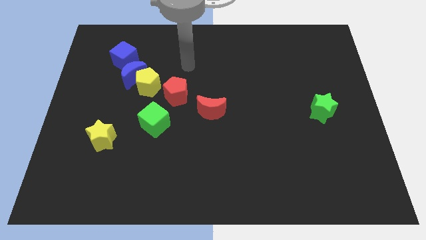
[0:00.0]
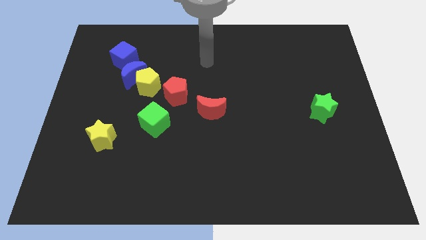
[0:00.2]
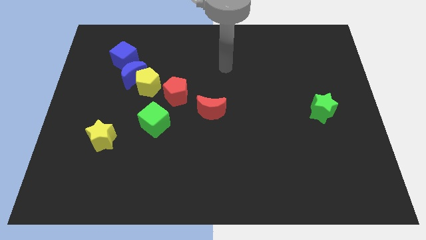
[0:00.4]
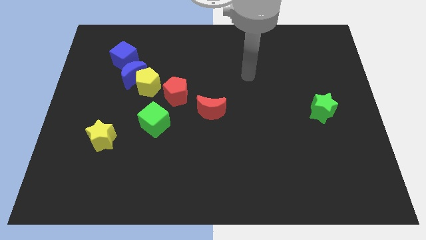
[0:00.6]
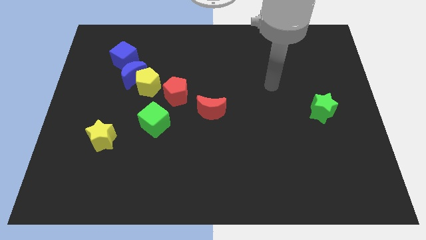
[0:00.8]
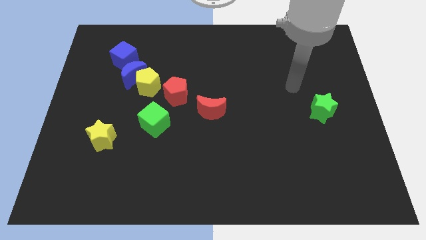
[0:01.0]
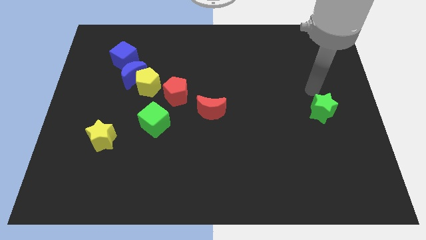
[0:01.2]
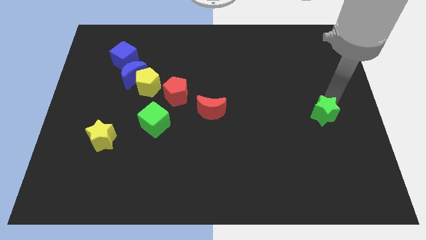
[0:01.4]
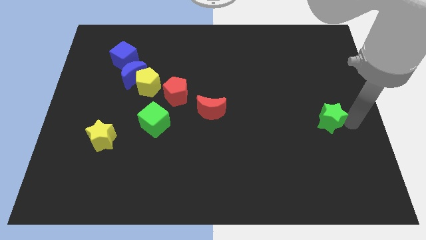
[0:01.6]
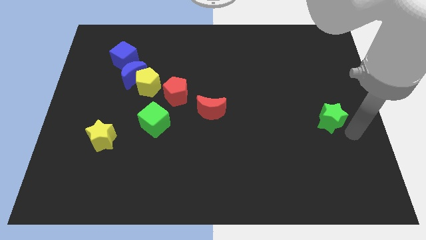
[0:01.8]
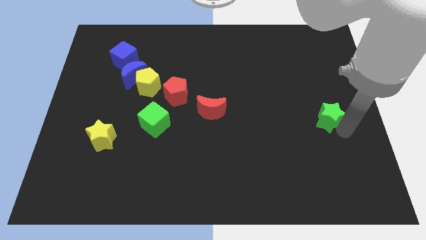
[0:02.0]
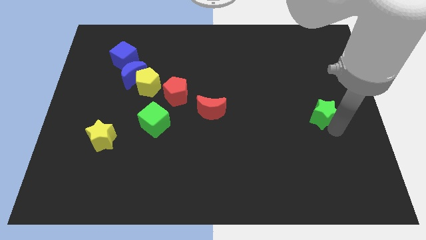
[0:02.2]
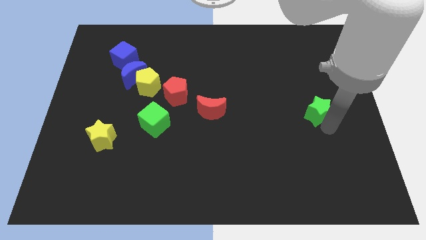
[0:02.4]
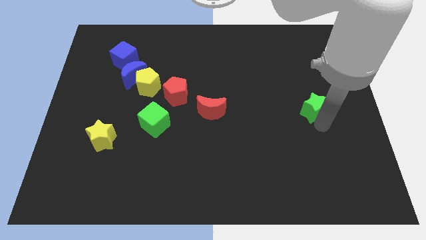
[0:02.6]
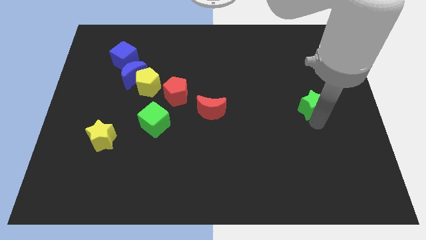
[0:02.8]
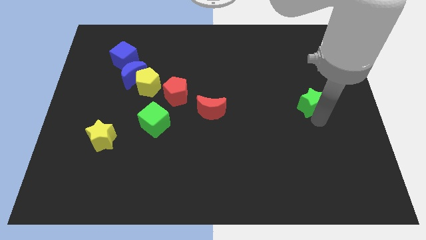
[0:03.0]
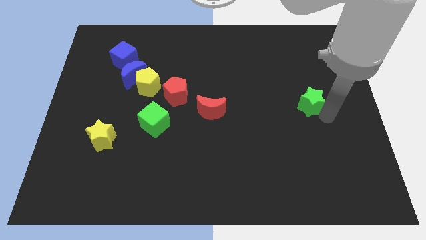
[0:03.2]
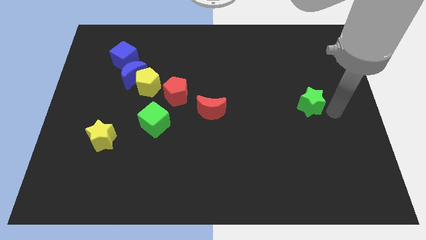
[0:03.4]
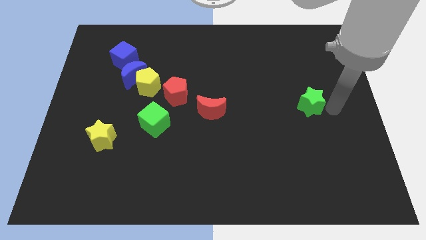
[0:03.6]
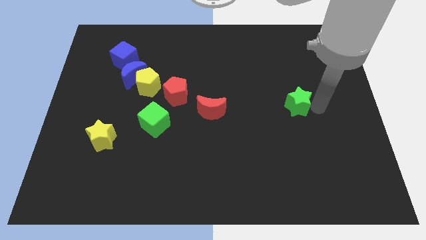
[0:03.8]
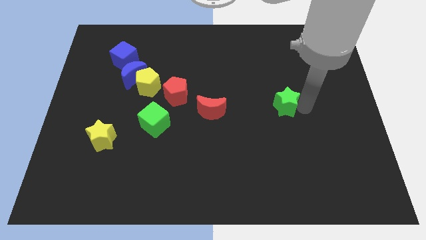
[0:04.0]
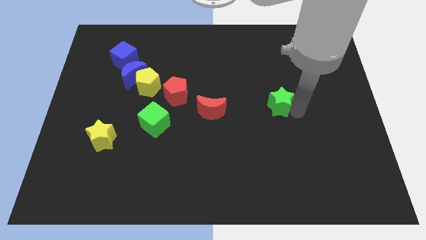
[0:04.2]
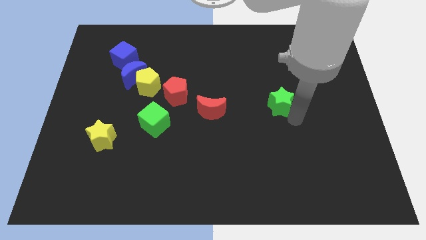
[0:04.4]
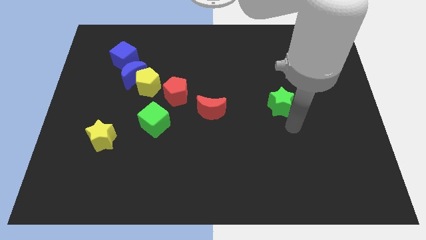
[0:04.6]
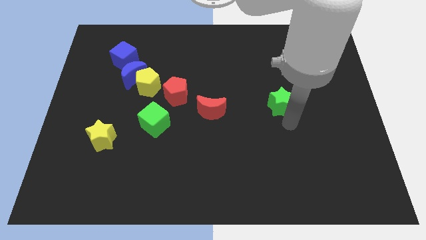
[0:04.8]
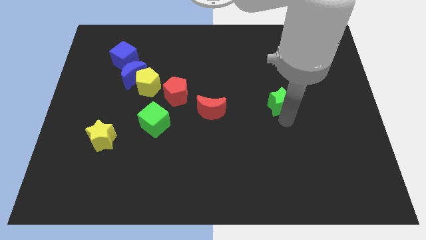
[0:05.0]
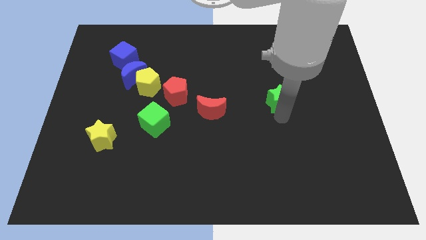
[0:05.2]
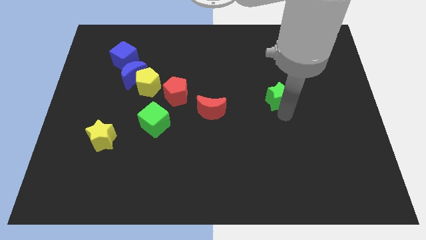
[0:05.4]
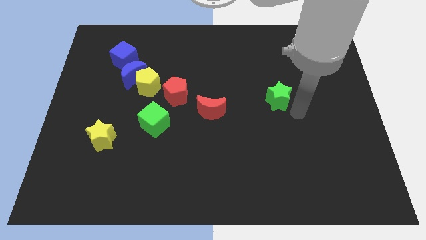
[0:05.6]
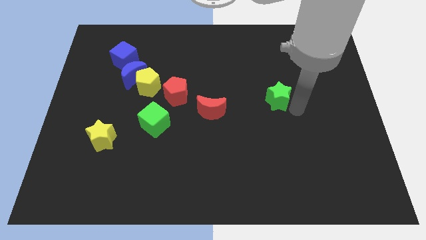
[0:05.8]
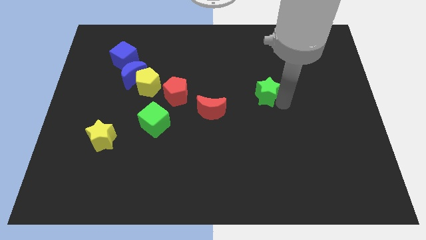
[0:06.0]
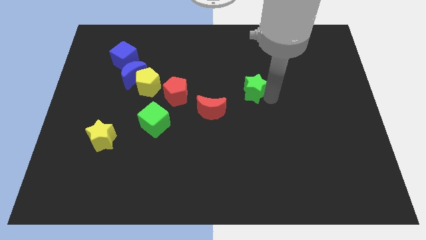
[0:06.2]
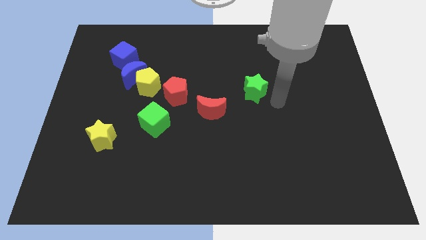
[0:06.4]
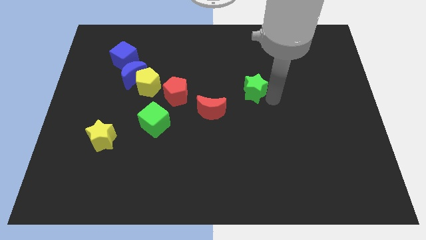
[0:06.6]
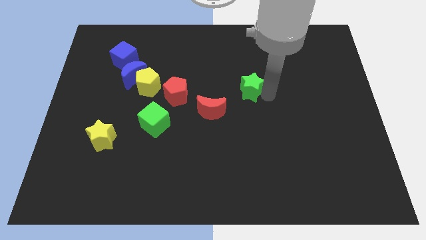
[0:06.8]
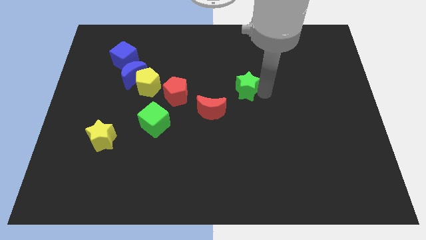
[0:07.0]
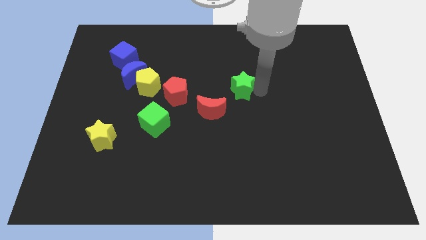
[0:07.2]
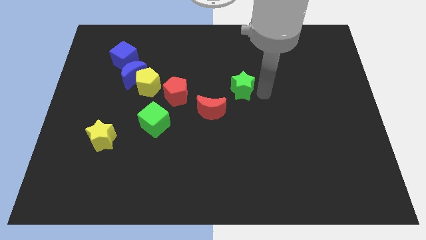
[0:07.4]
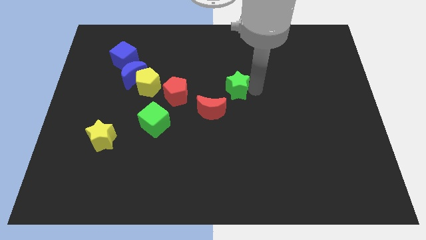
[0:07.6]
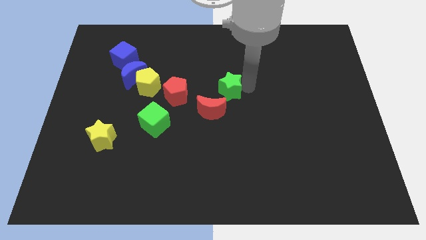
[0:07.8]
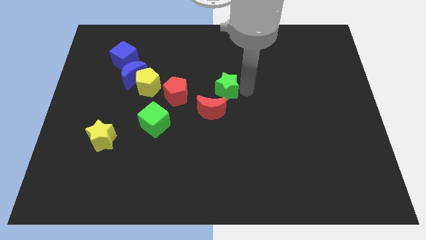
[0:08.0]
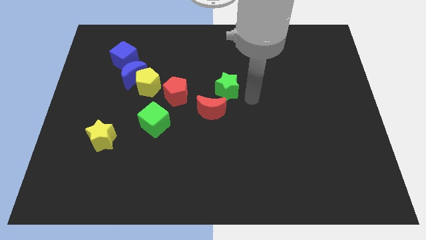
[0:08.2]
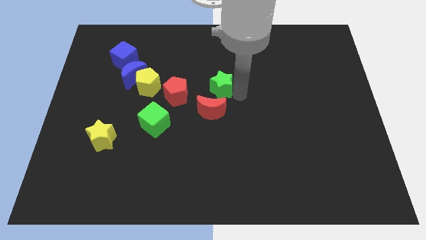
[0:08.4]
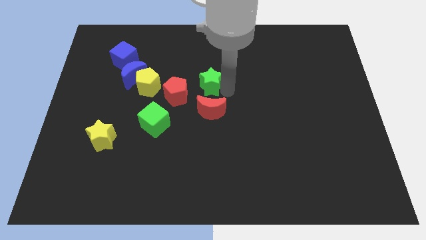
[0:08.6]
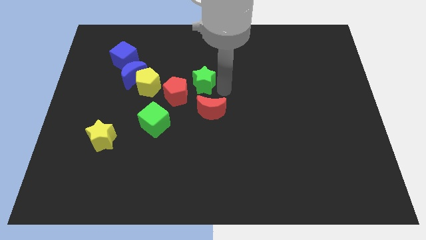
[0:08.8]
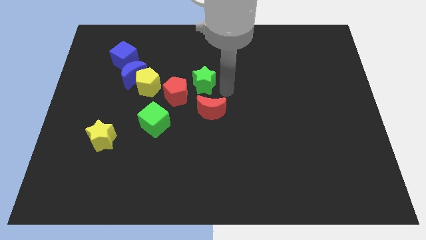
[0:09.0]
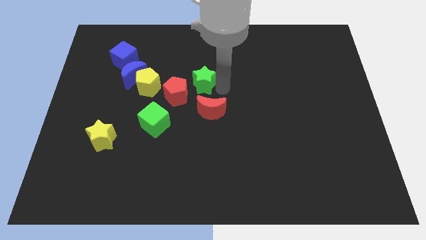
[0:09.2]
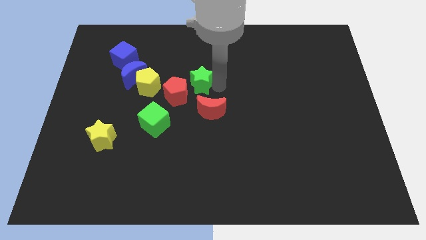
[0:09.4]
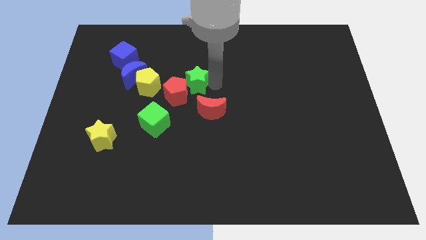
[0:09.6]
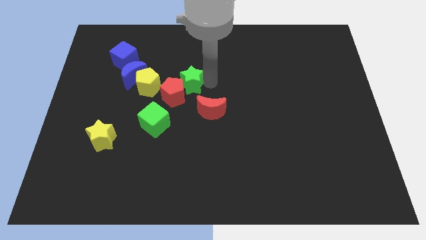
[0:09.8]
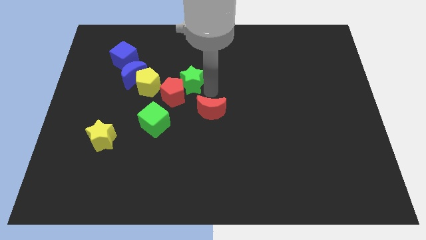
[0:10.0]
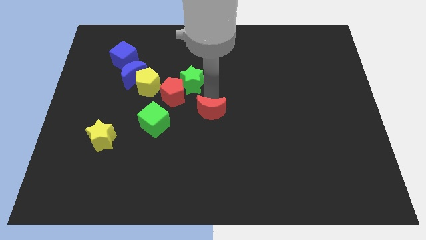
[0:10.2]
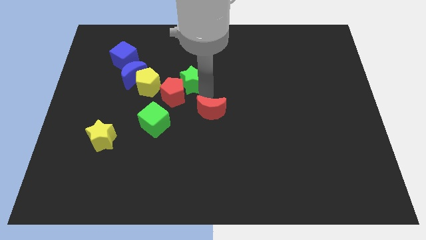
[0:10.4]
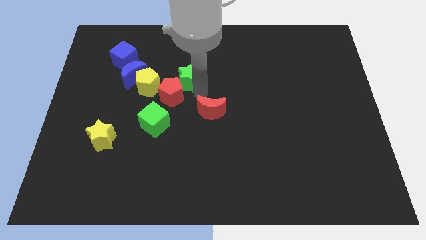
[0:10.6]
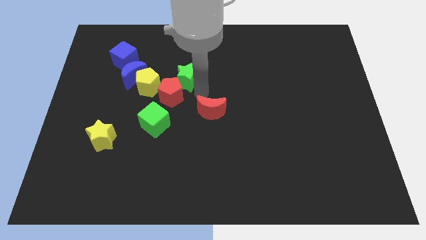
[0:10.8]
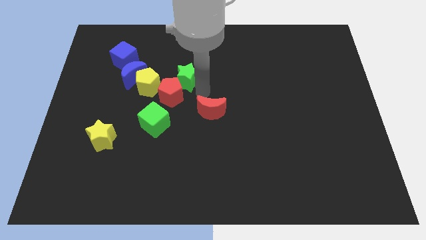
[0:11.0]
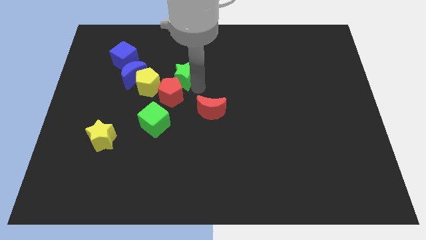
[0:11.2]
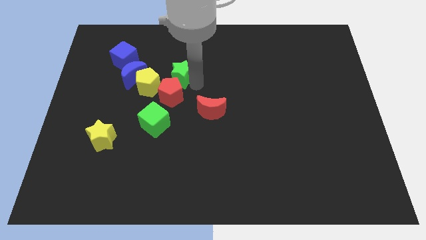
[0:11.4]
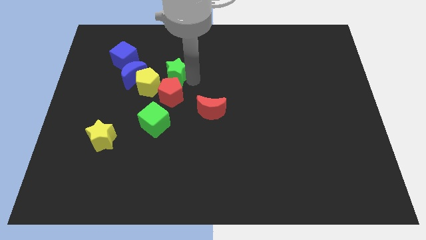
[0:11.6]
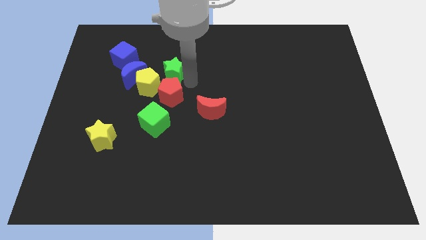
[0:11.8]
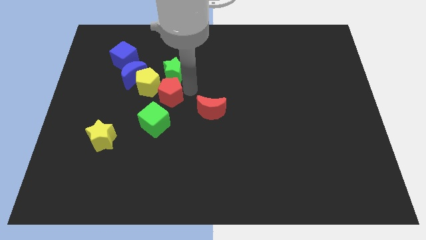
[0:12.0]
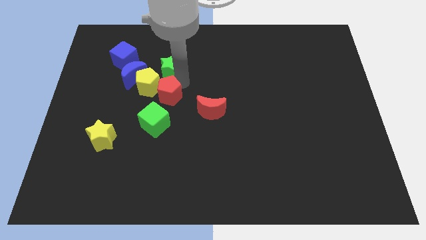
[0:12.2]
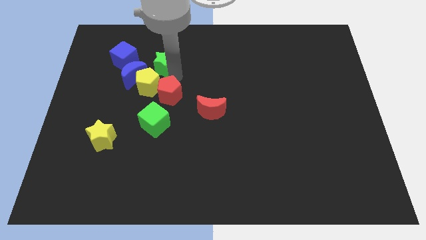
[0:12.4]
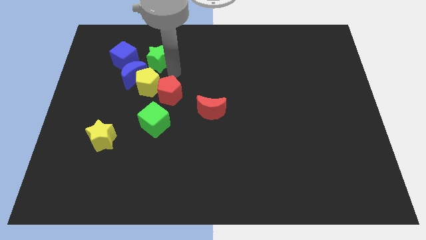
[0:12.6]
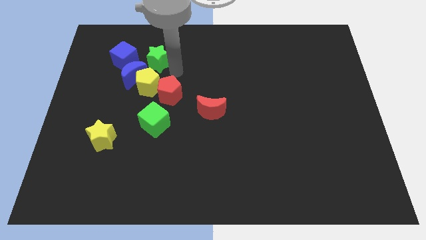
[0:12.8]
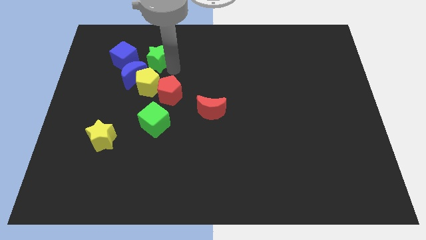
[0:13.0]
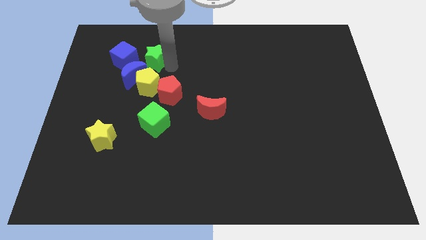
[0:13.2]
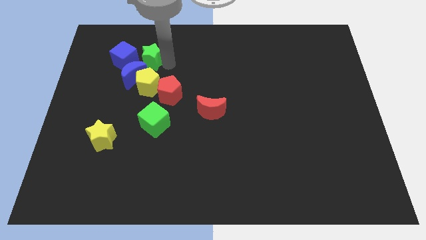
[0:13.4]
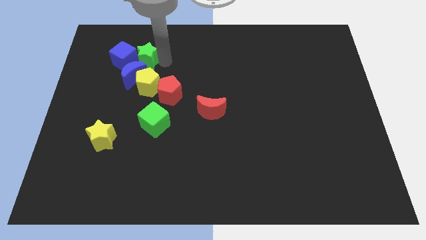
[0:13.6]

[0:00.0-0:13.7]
put the green star to the blue cube
